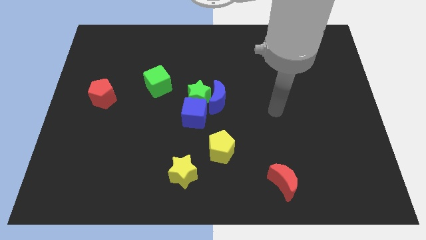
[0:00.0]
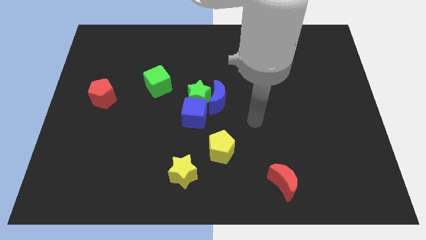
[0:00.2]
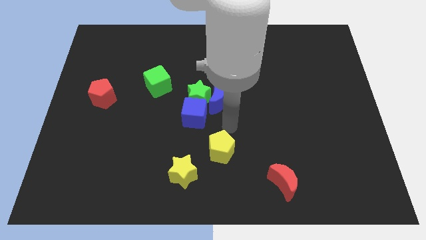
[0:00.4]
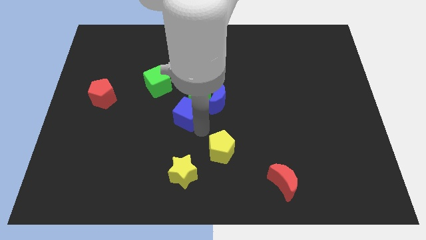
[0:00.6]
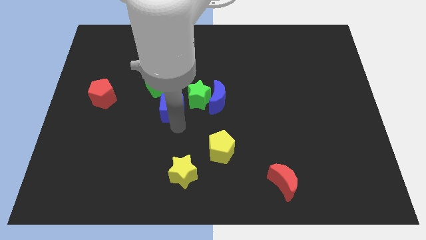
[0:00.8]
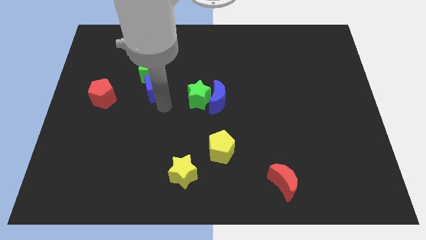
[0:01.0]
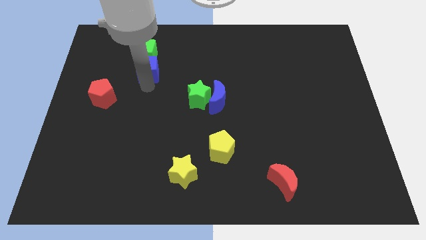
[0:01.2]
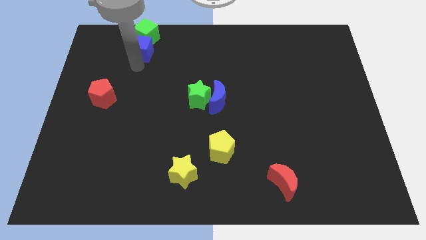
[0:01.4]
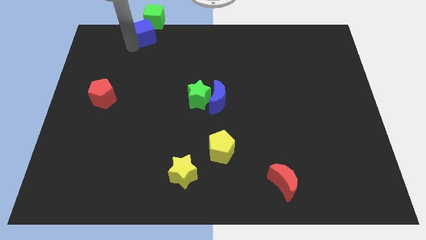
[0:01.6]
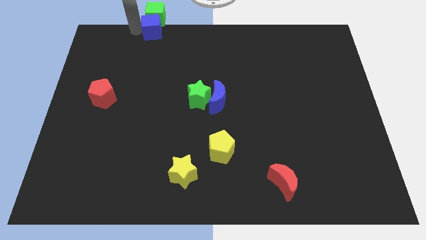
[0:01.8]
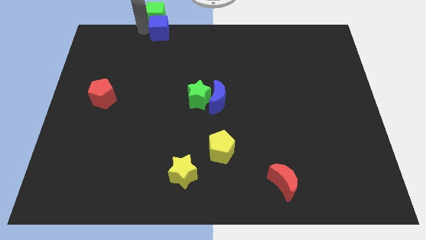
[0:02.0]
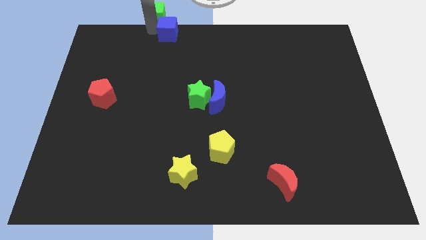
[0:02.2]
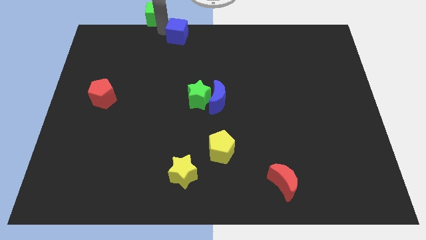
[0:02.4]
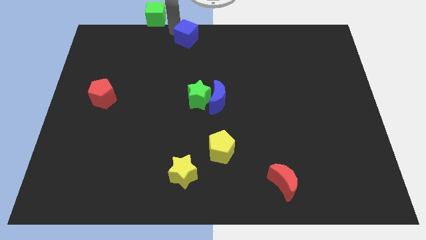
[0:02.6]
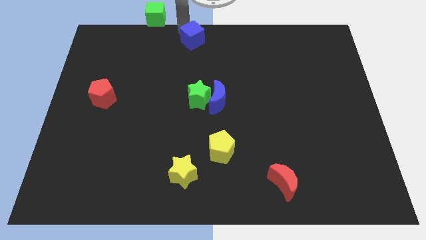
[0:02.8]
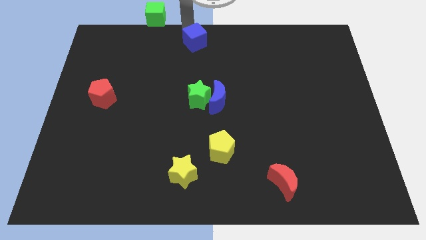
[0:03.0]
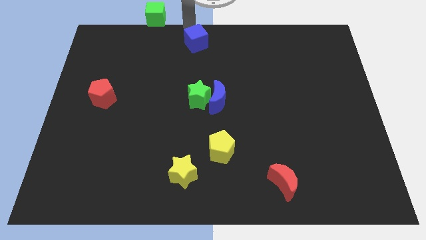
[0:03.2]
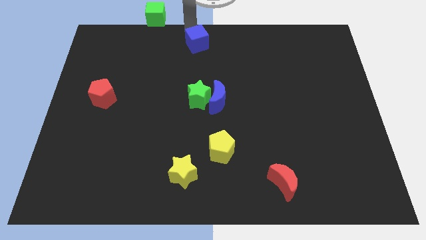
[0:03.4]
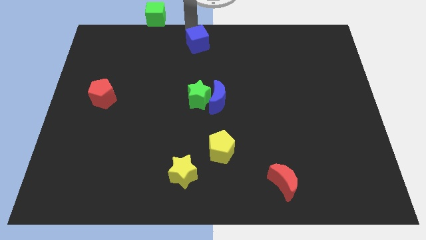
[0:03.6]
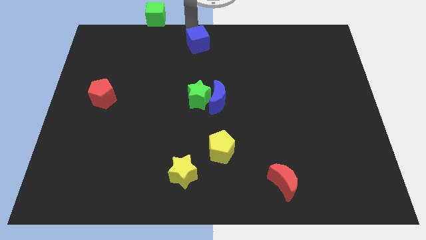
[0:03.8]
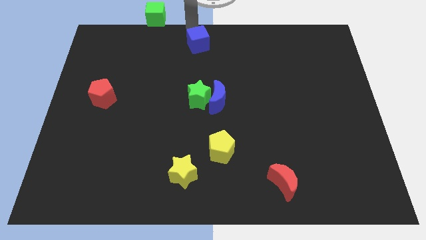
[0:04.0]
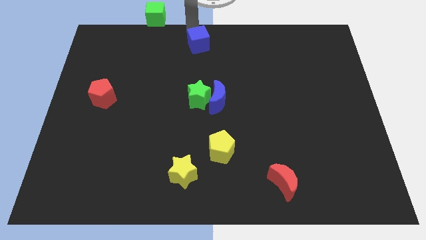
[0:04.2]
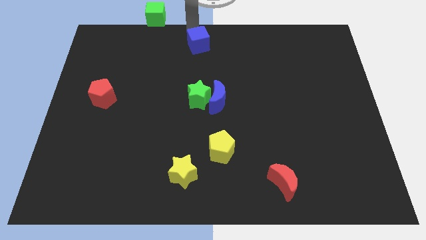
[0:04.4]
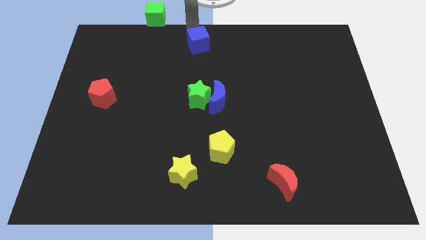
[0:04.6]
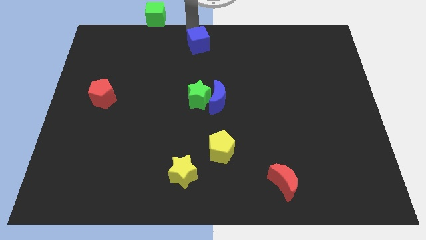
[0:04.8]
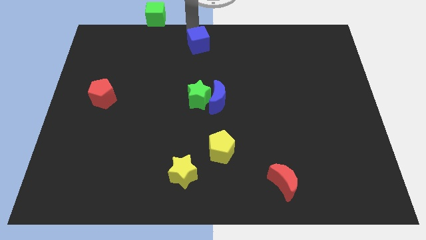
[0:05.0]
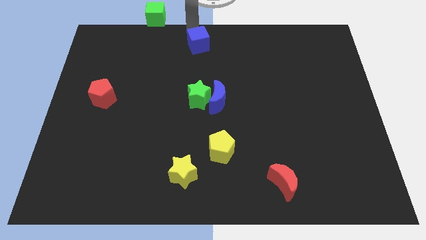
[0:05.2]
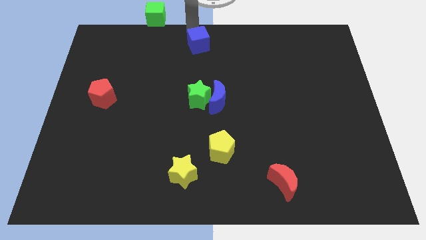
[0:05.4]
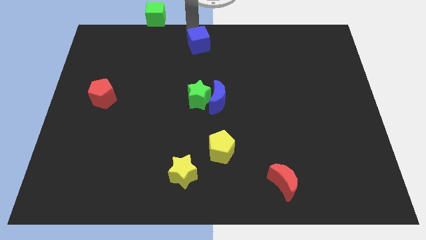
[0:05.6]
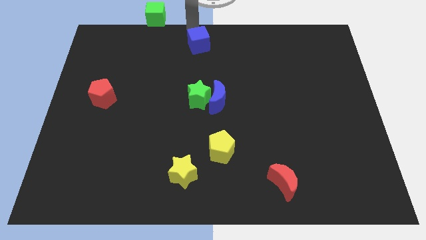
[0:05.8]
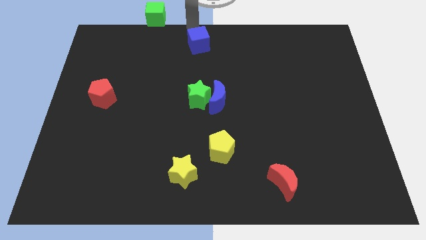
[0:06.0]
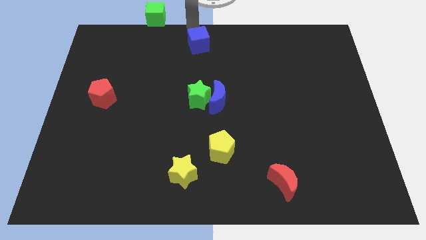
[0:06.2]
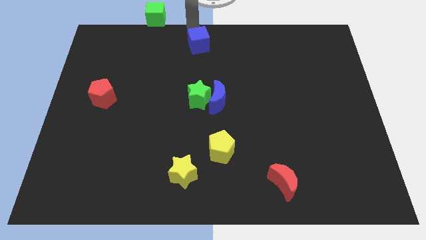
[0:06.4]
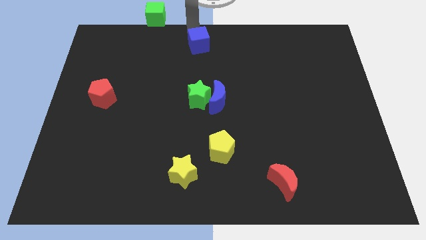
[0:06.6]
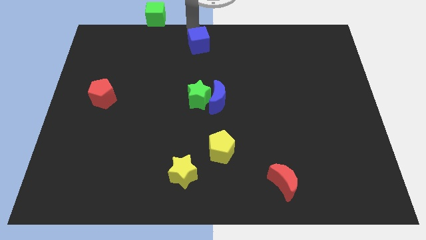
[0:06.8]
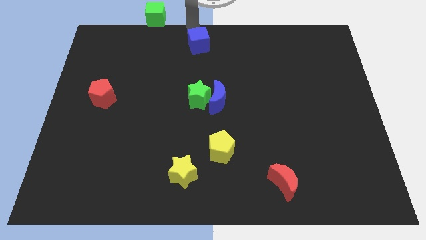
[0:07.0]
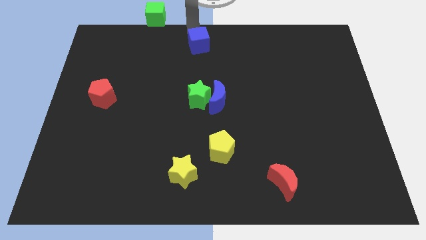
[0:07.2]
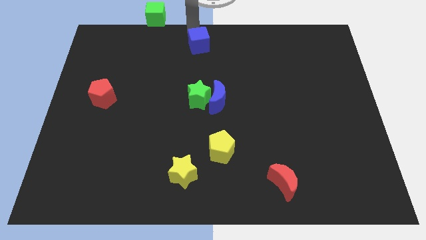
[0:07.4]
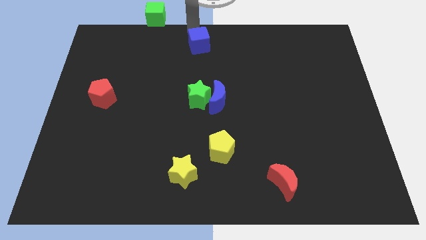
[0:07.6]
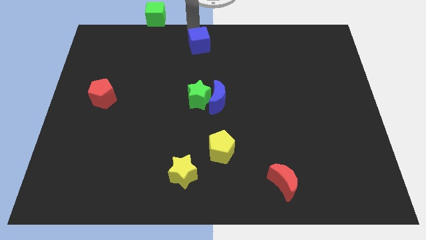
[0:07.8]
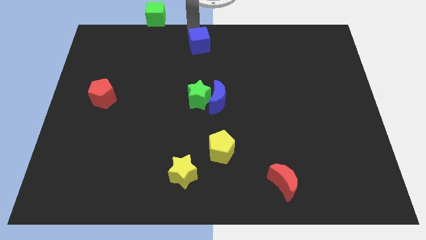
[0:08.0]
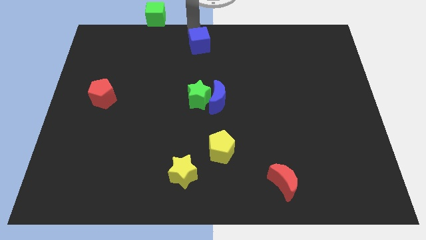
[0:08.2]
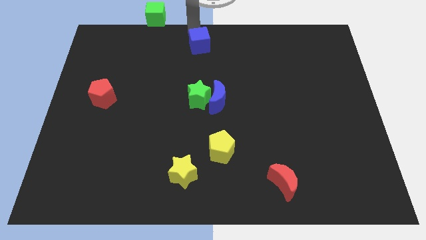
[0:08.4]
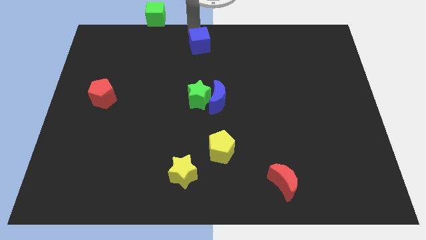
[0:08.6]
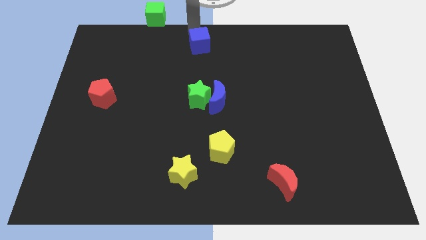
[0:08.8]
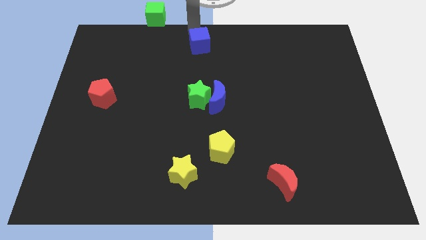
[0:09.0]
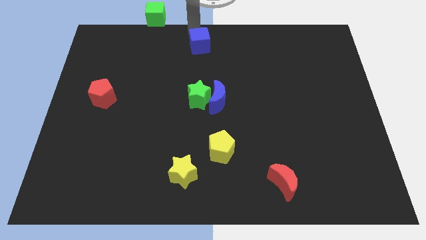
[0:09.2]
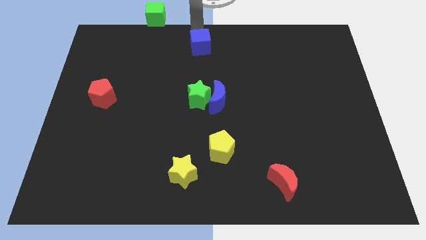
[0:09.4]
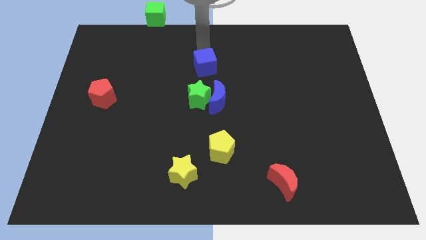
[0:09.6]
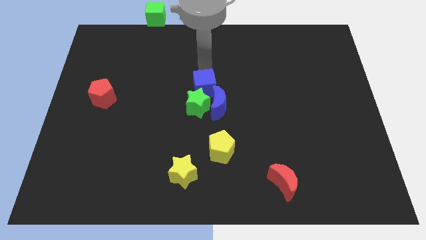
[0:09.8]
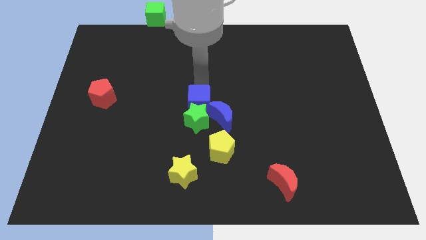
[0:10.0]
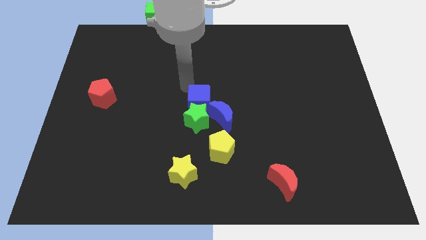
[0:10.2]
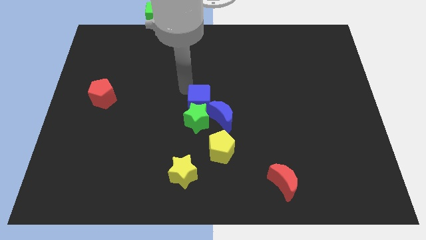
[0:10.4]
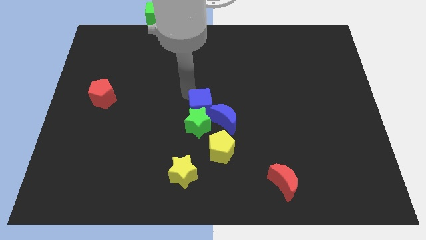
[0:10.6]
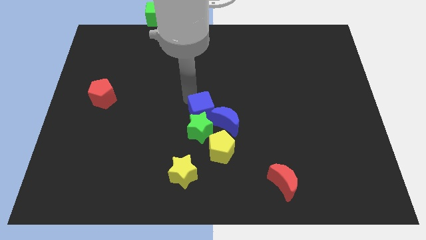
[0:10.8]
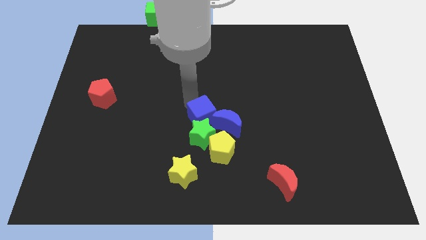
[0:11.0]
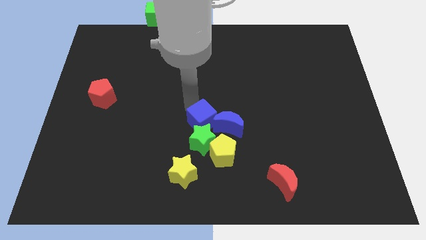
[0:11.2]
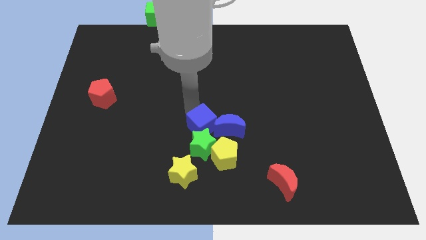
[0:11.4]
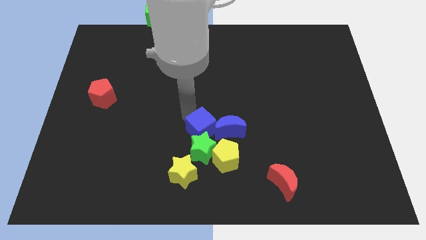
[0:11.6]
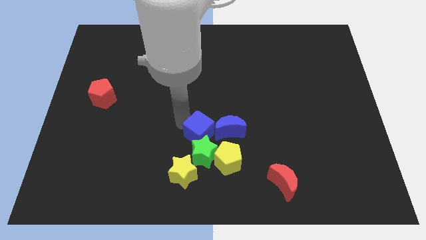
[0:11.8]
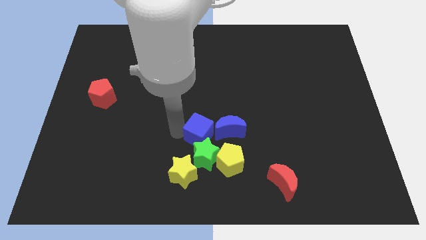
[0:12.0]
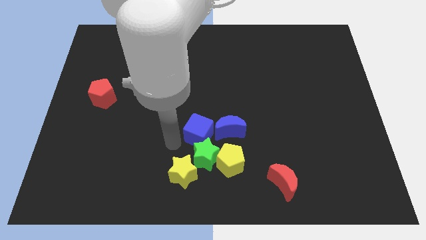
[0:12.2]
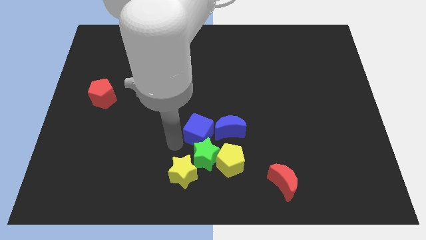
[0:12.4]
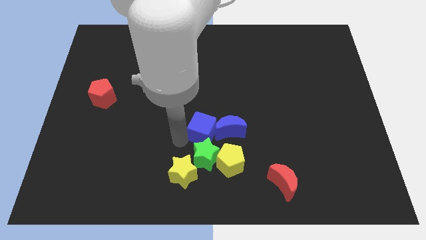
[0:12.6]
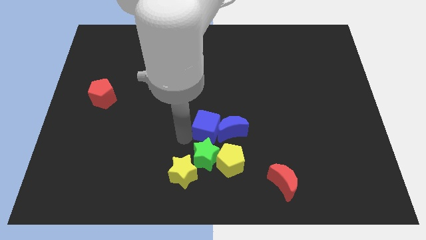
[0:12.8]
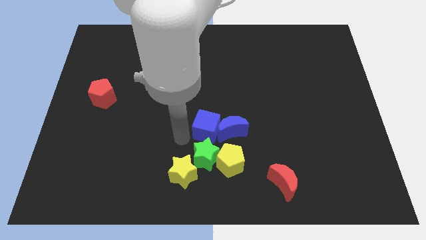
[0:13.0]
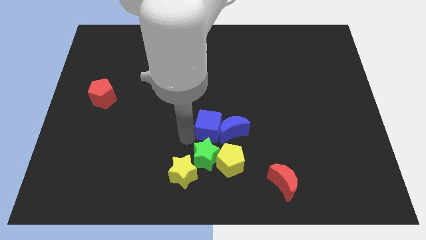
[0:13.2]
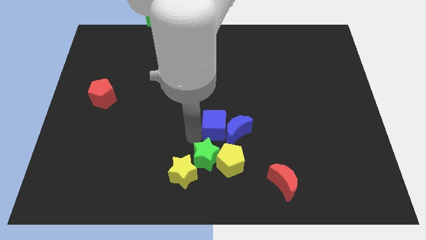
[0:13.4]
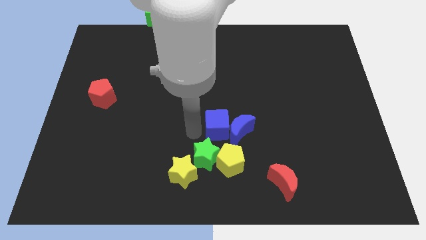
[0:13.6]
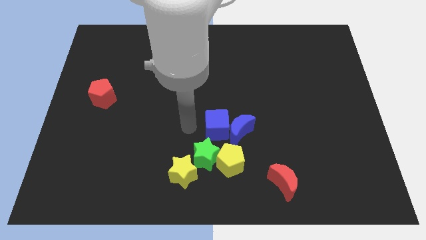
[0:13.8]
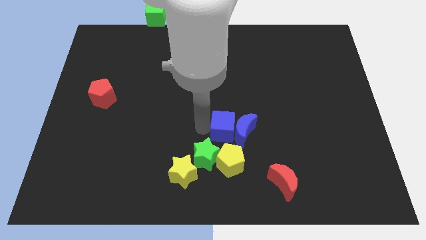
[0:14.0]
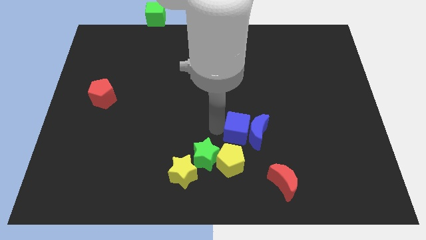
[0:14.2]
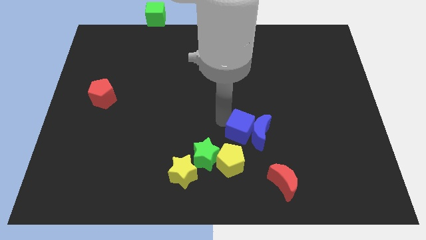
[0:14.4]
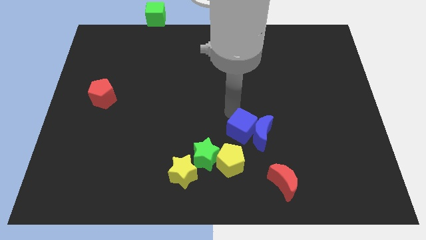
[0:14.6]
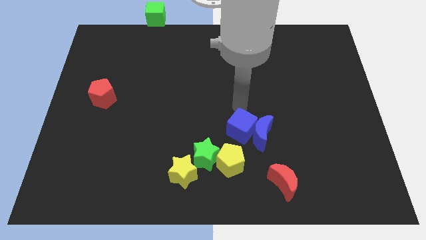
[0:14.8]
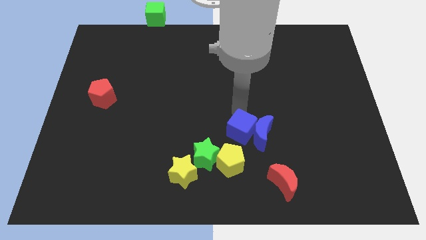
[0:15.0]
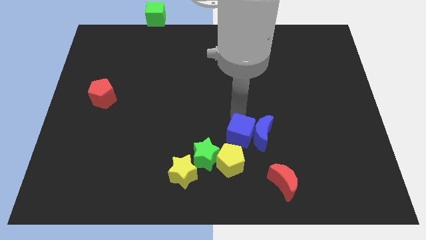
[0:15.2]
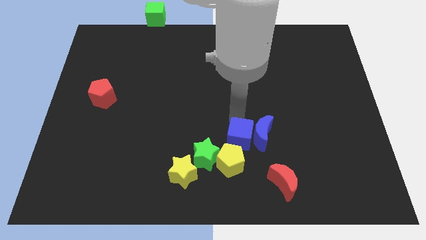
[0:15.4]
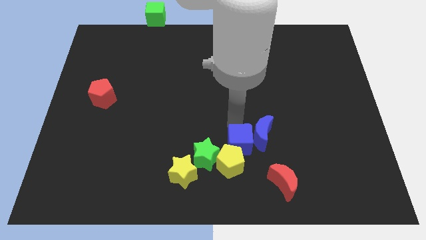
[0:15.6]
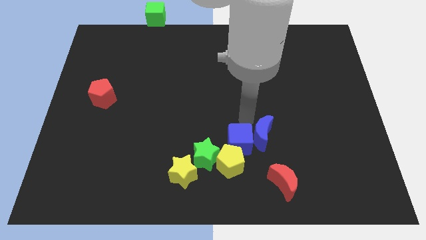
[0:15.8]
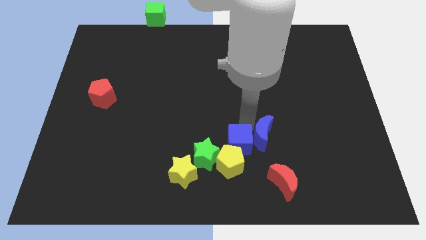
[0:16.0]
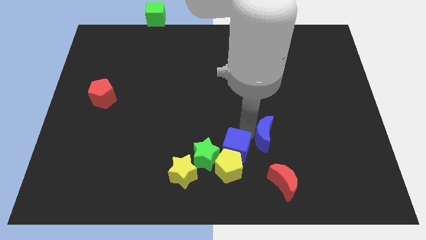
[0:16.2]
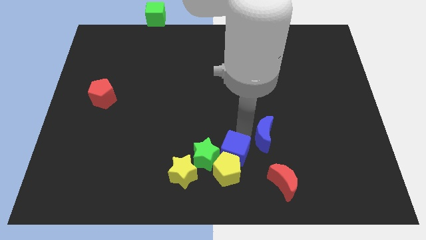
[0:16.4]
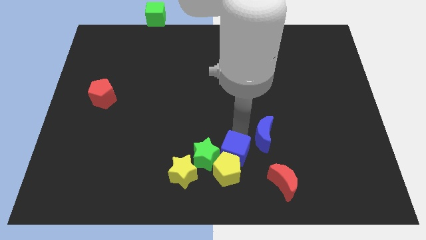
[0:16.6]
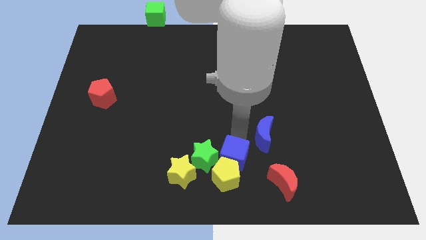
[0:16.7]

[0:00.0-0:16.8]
move the blue cube to the bottom

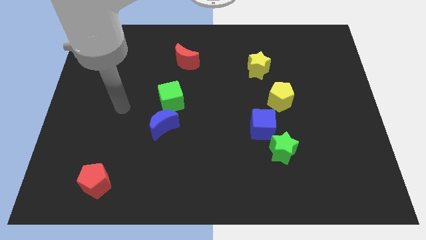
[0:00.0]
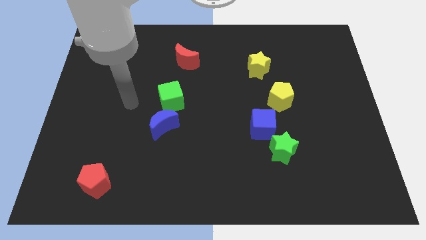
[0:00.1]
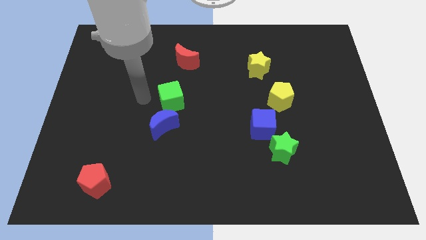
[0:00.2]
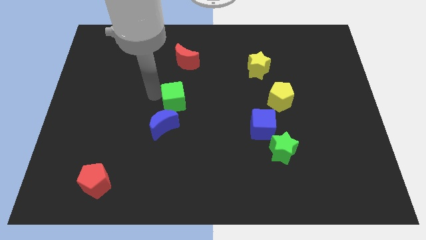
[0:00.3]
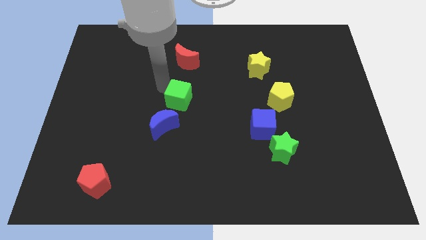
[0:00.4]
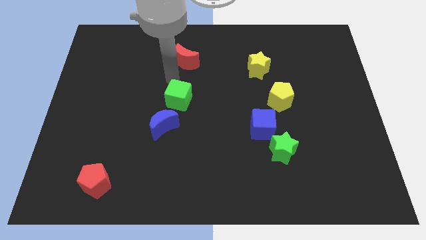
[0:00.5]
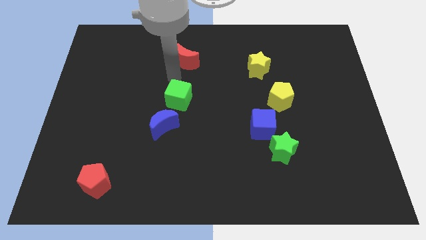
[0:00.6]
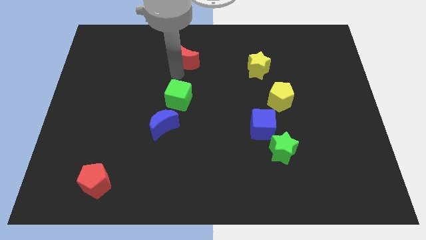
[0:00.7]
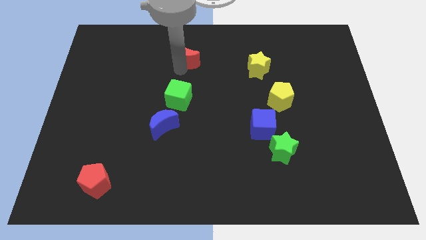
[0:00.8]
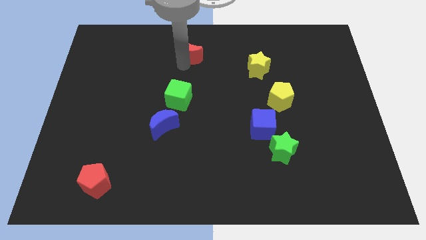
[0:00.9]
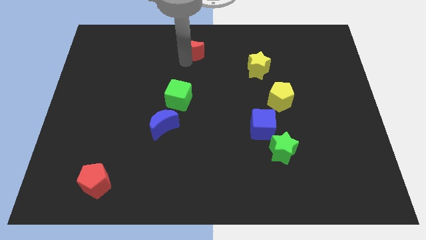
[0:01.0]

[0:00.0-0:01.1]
push the red moon to the top side
